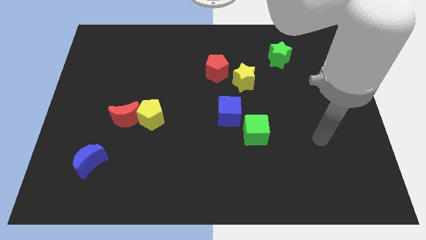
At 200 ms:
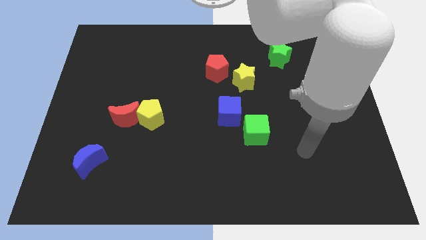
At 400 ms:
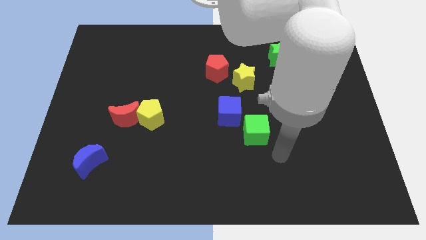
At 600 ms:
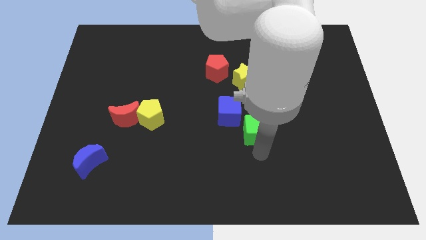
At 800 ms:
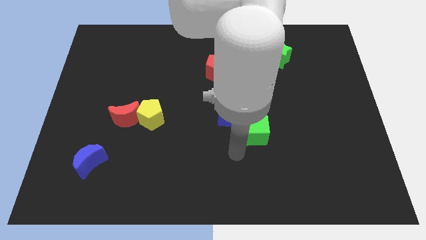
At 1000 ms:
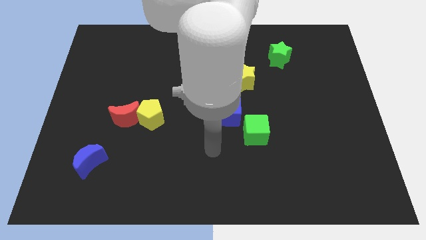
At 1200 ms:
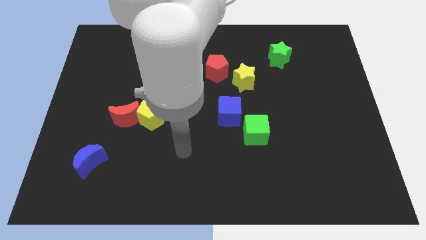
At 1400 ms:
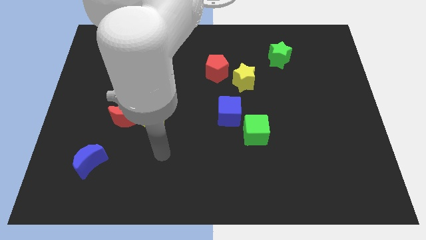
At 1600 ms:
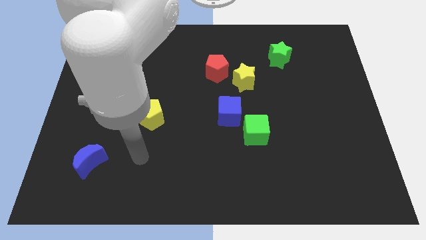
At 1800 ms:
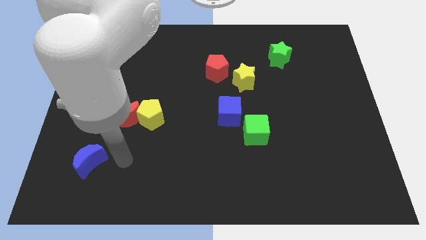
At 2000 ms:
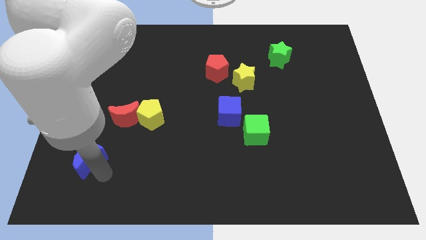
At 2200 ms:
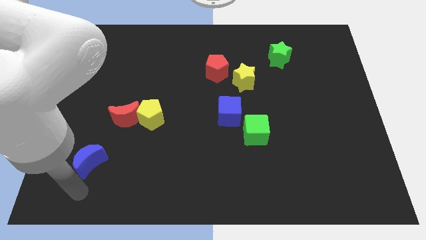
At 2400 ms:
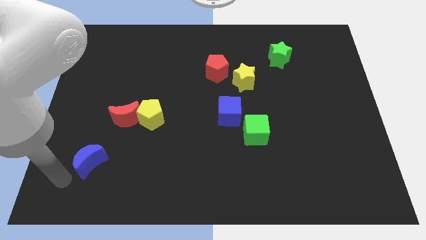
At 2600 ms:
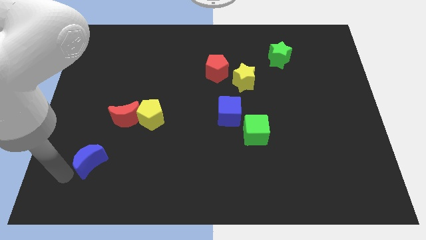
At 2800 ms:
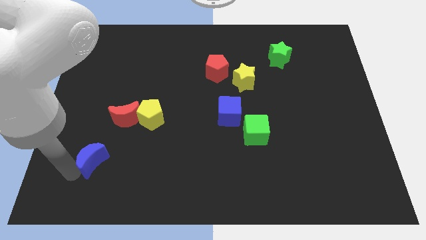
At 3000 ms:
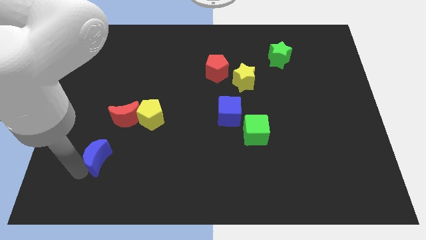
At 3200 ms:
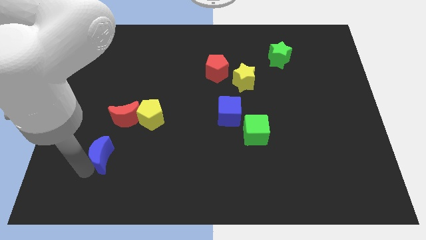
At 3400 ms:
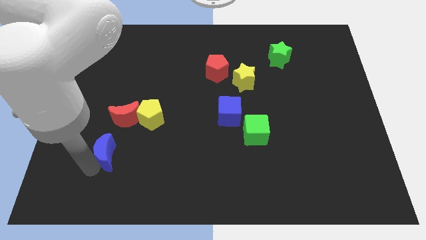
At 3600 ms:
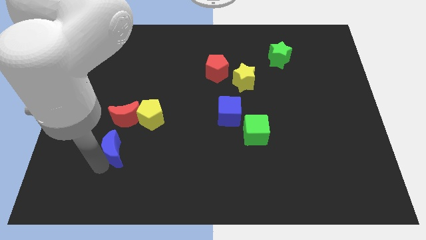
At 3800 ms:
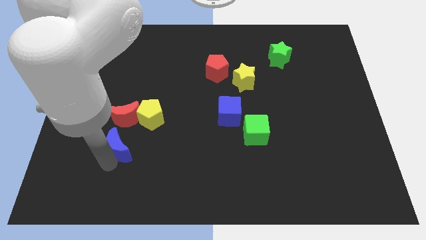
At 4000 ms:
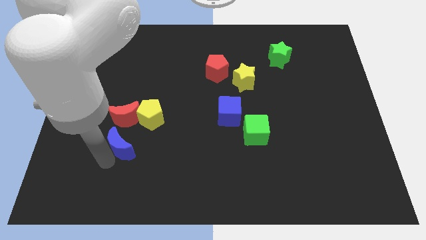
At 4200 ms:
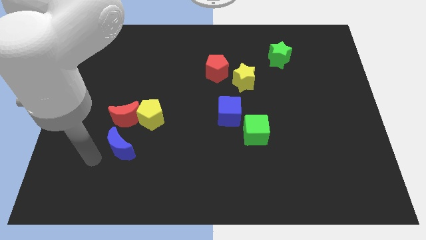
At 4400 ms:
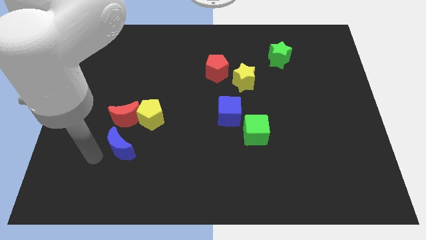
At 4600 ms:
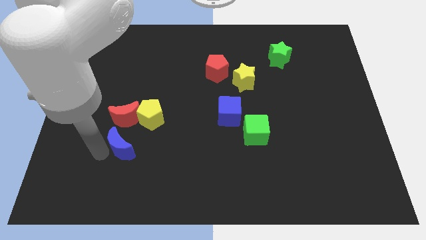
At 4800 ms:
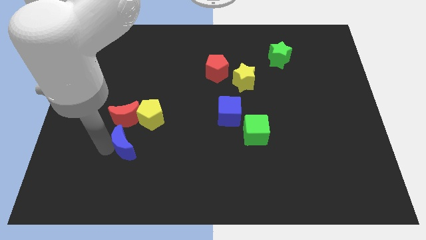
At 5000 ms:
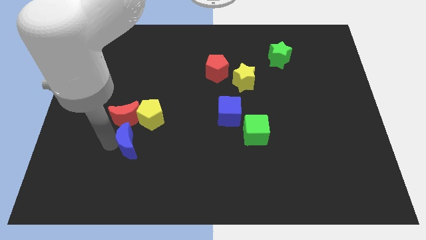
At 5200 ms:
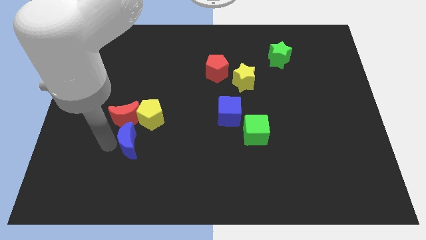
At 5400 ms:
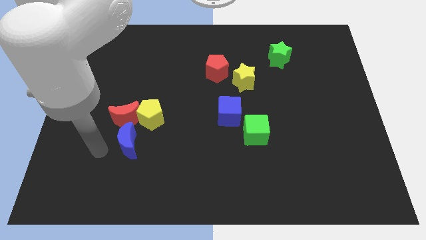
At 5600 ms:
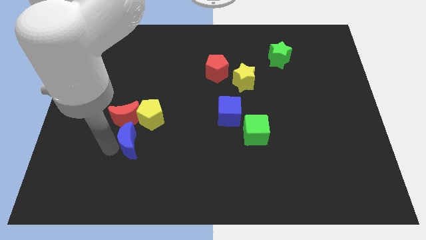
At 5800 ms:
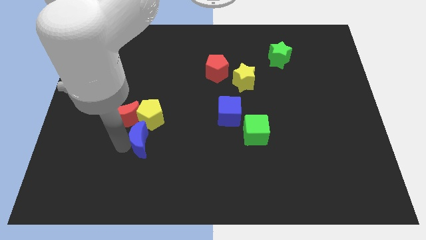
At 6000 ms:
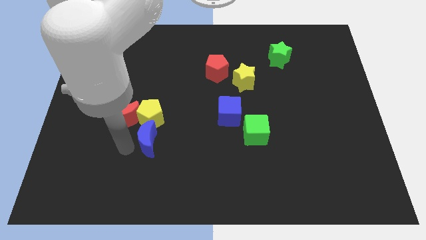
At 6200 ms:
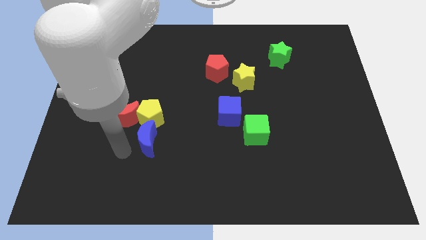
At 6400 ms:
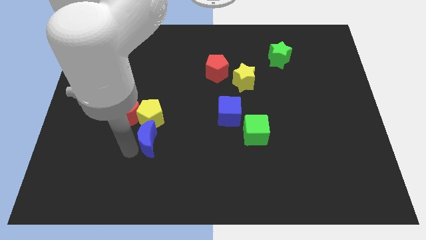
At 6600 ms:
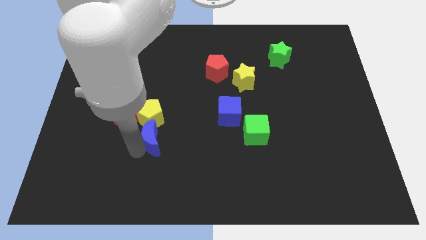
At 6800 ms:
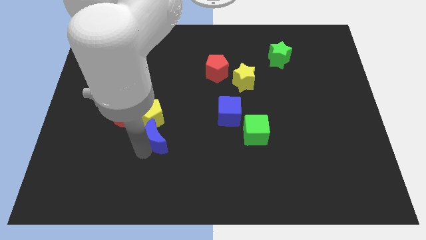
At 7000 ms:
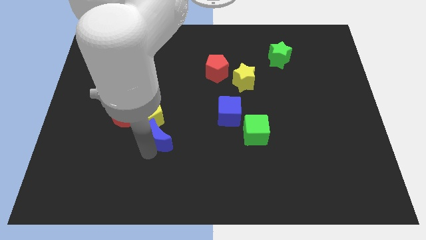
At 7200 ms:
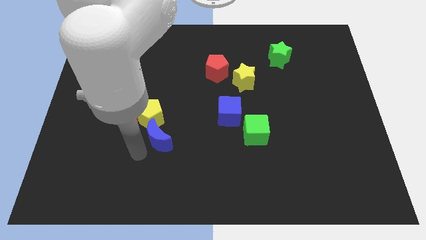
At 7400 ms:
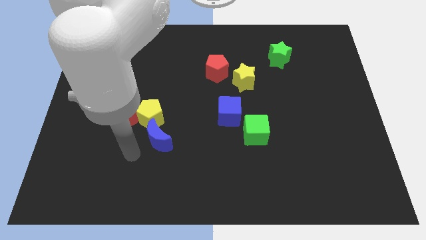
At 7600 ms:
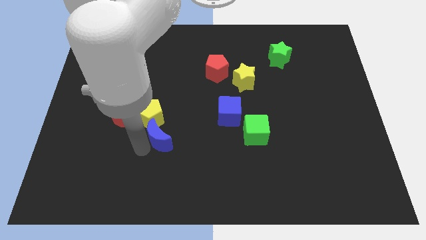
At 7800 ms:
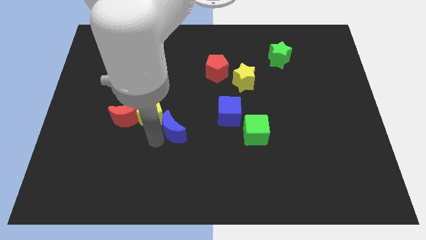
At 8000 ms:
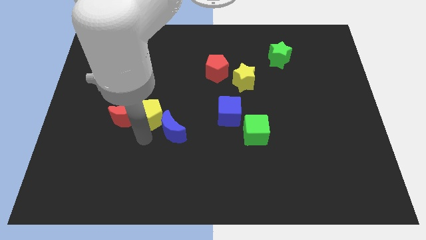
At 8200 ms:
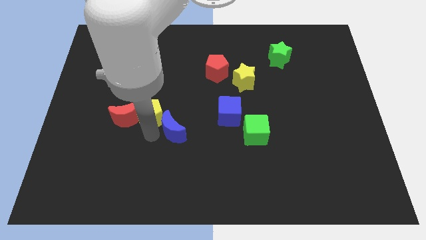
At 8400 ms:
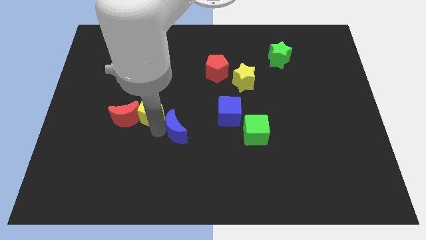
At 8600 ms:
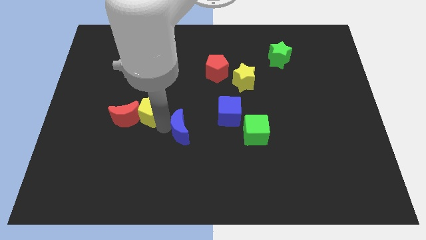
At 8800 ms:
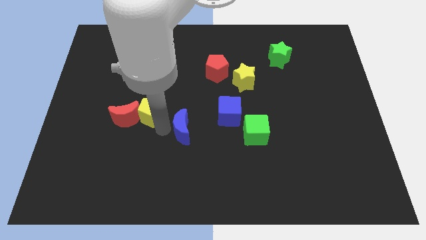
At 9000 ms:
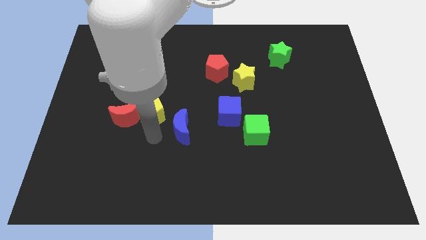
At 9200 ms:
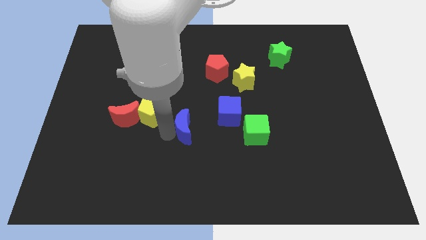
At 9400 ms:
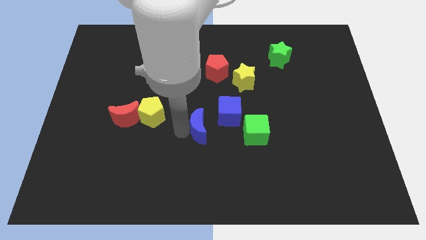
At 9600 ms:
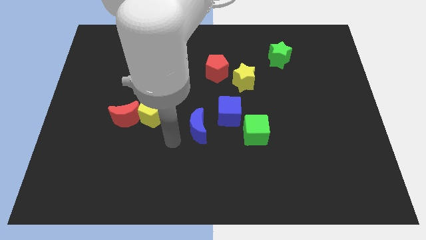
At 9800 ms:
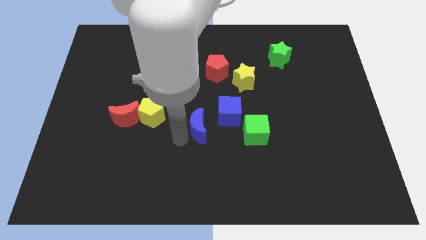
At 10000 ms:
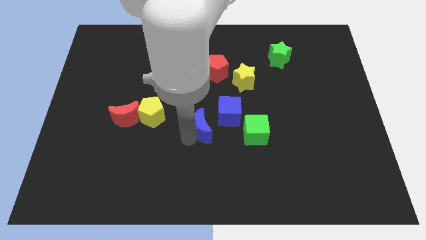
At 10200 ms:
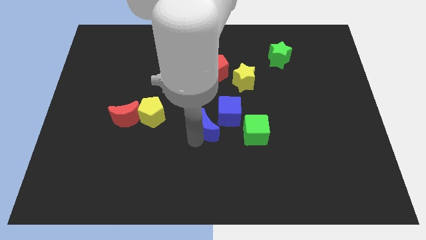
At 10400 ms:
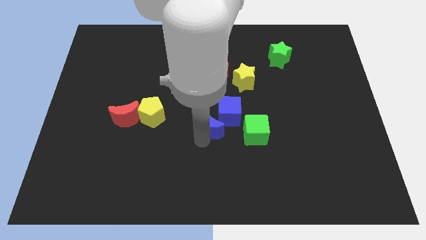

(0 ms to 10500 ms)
move the blue moon towards the blue cube

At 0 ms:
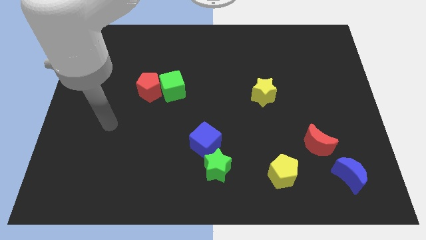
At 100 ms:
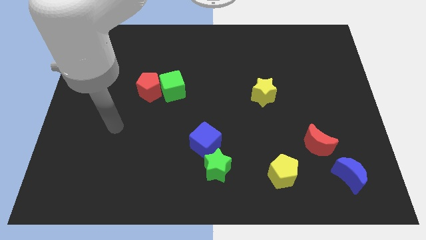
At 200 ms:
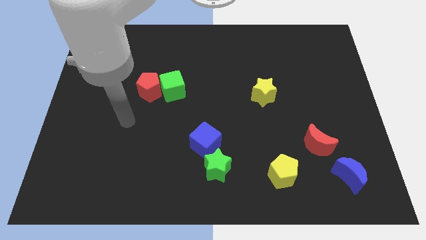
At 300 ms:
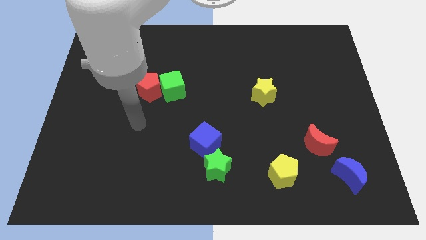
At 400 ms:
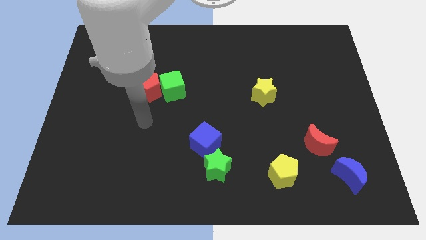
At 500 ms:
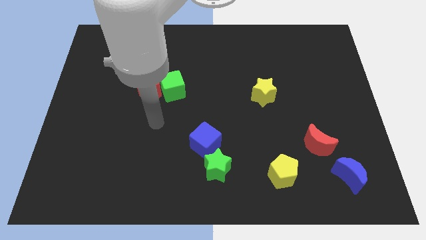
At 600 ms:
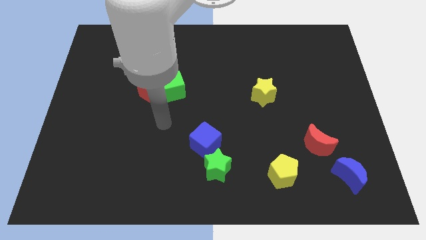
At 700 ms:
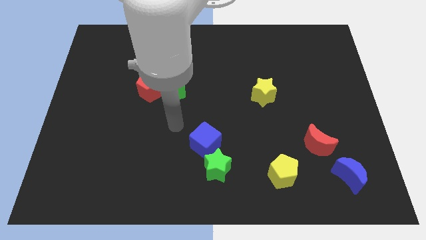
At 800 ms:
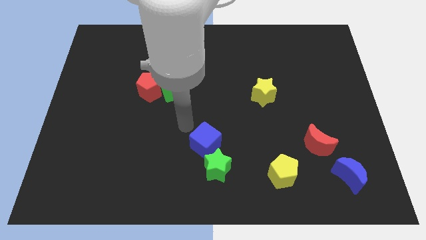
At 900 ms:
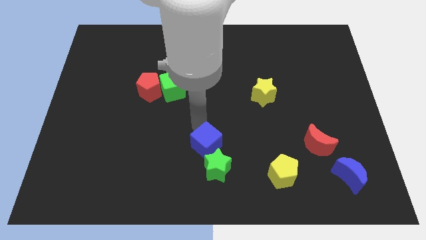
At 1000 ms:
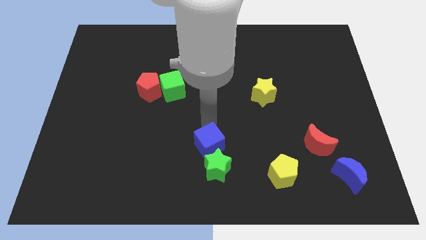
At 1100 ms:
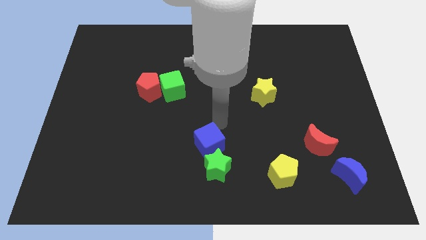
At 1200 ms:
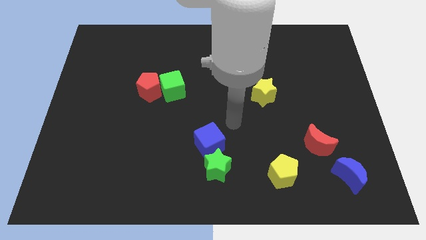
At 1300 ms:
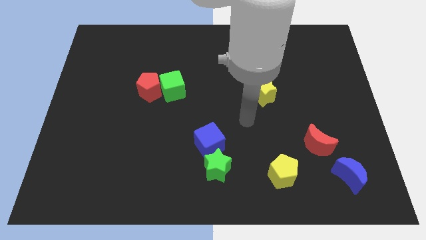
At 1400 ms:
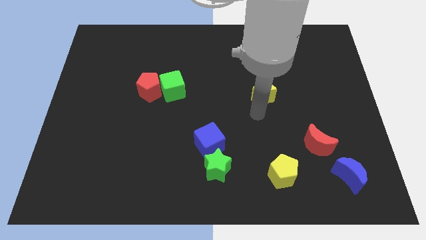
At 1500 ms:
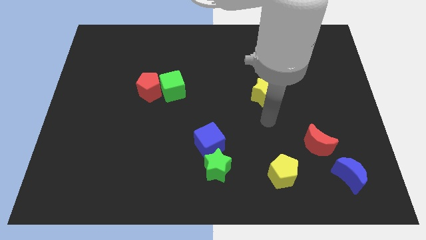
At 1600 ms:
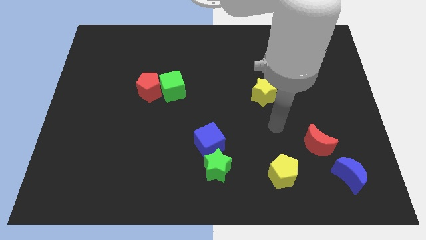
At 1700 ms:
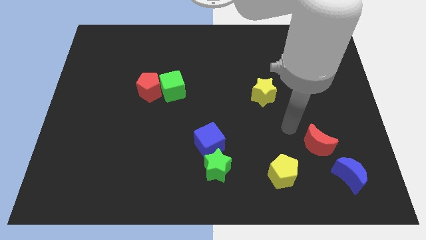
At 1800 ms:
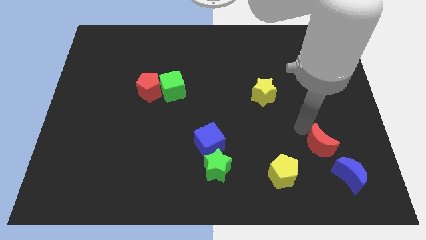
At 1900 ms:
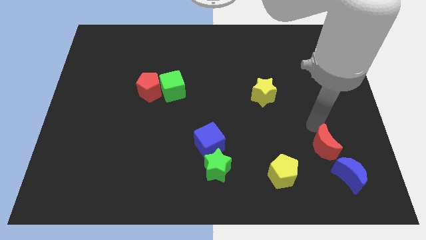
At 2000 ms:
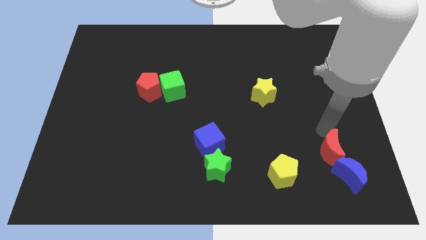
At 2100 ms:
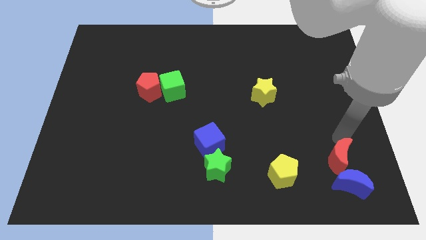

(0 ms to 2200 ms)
move the blue moon close to the red moon
